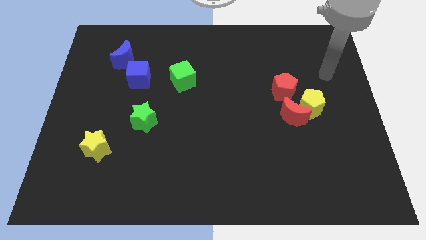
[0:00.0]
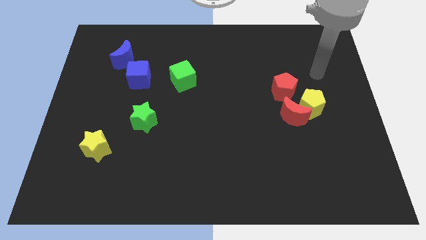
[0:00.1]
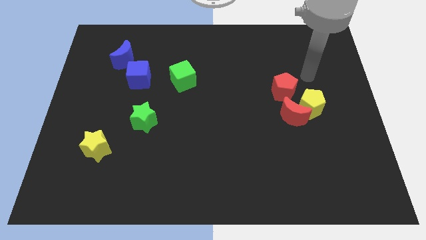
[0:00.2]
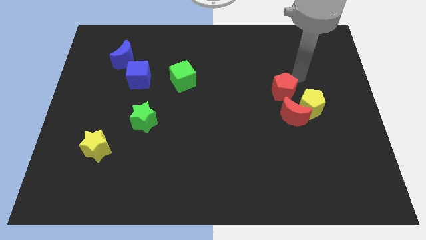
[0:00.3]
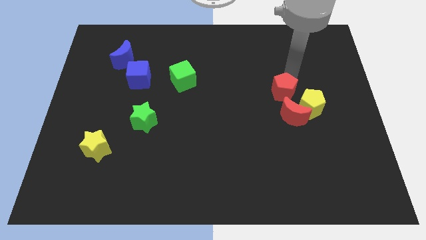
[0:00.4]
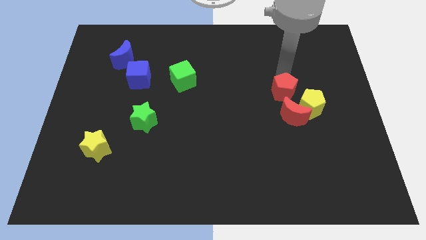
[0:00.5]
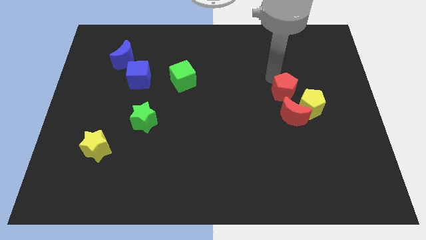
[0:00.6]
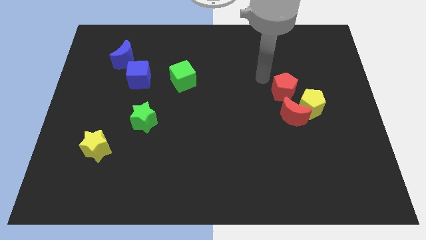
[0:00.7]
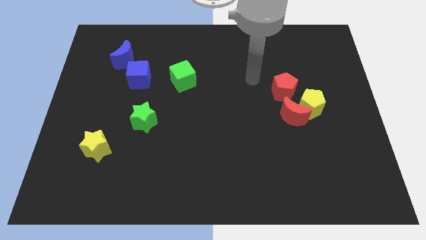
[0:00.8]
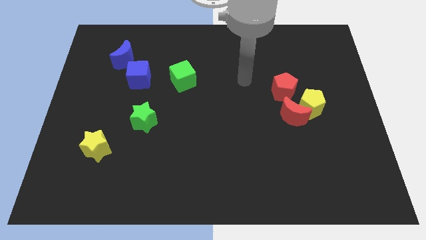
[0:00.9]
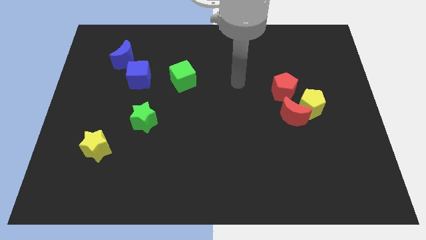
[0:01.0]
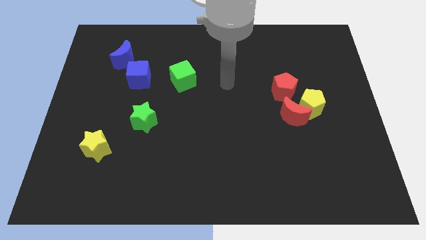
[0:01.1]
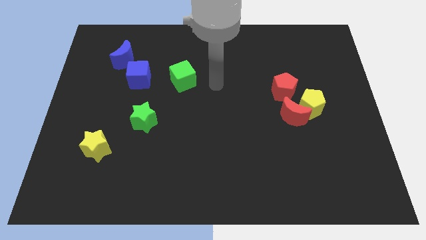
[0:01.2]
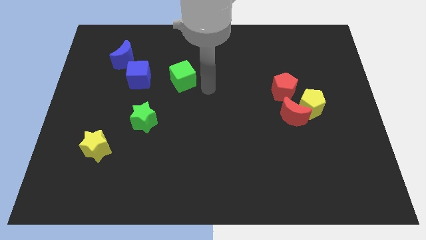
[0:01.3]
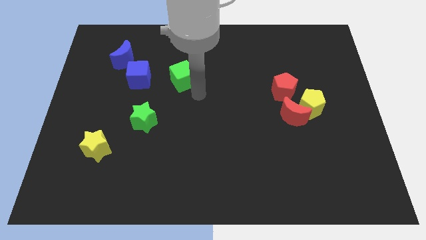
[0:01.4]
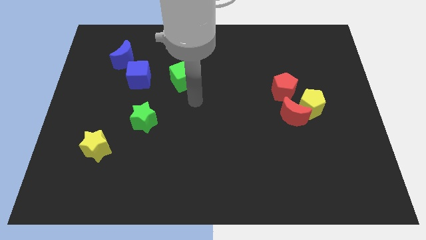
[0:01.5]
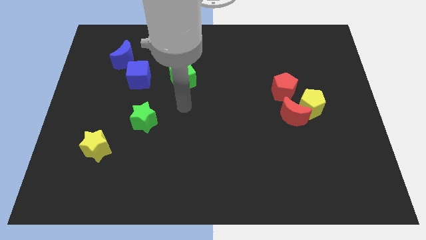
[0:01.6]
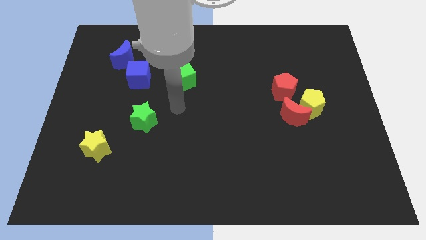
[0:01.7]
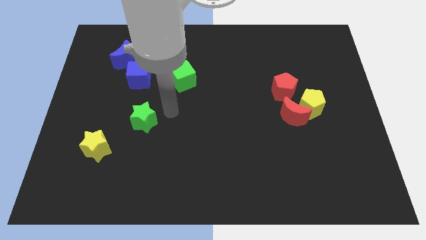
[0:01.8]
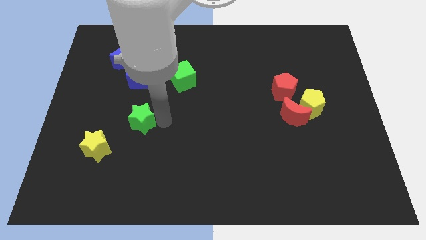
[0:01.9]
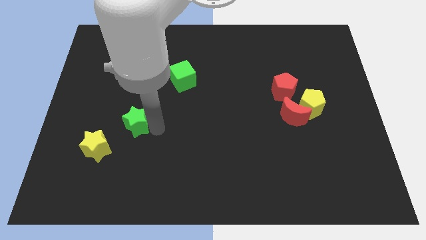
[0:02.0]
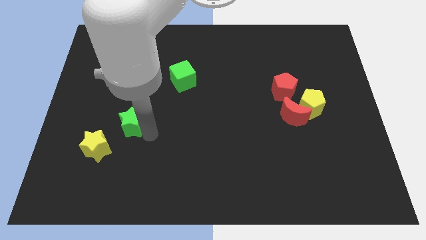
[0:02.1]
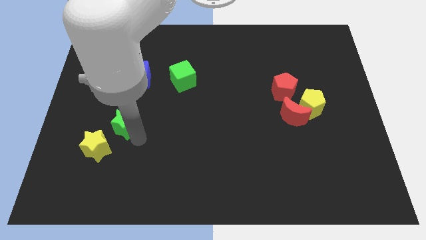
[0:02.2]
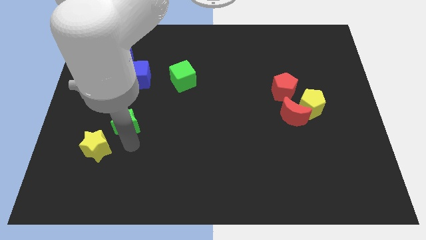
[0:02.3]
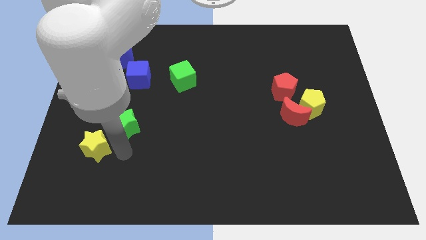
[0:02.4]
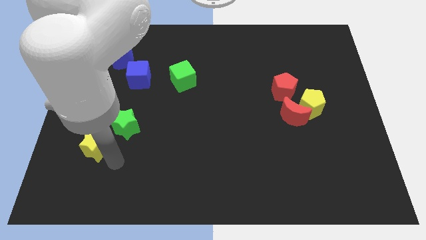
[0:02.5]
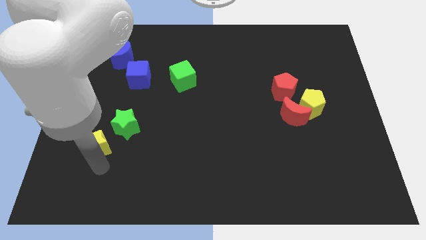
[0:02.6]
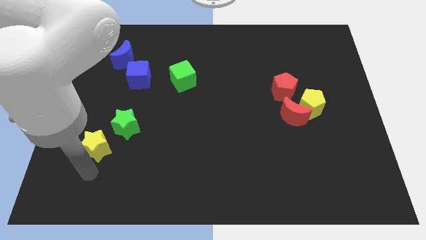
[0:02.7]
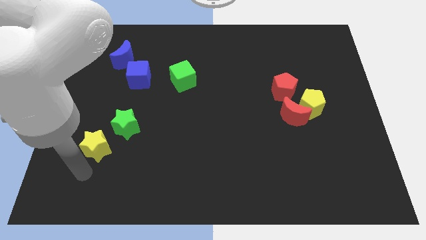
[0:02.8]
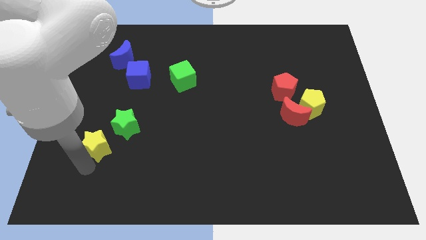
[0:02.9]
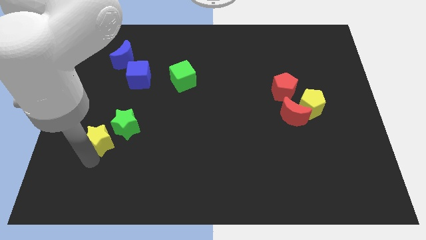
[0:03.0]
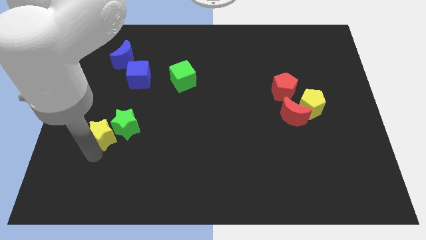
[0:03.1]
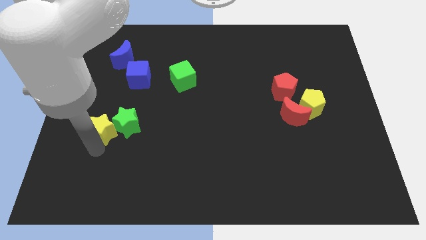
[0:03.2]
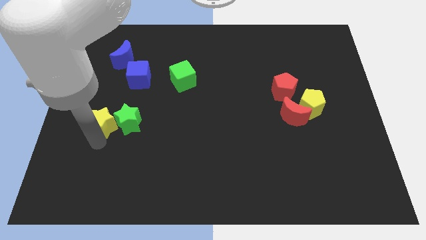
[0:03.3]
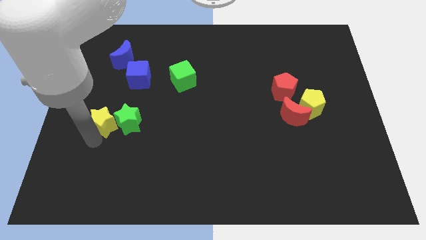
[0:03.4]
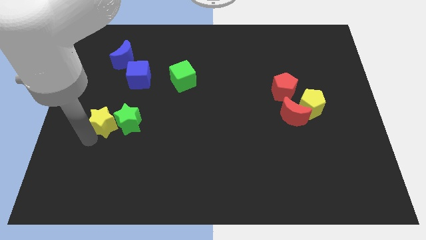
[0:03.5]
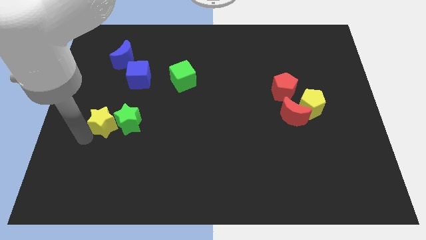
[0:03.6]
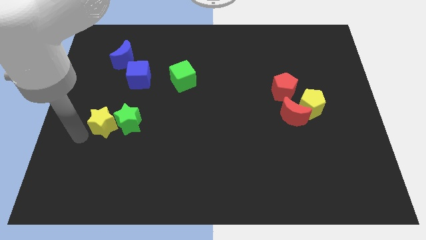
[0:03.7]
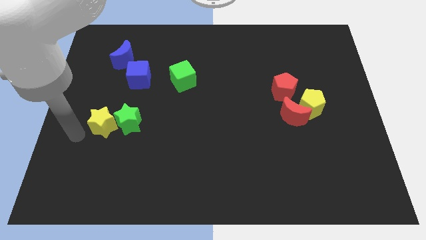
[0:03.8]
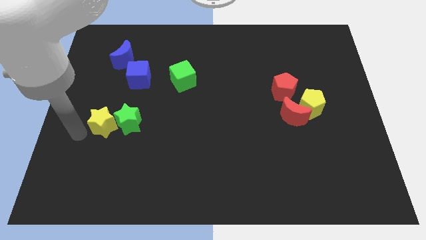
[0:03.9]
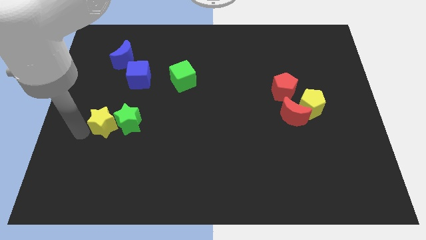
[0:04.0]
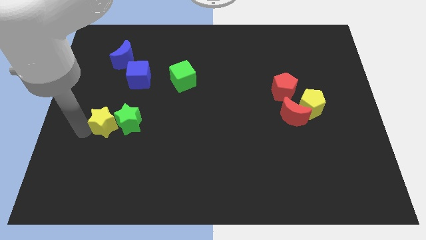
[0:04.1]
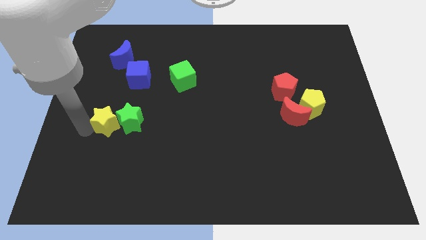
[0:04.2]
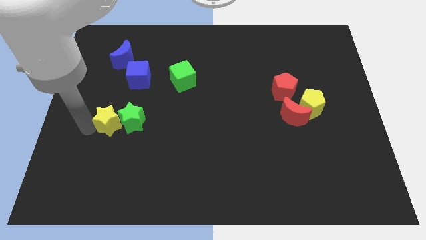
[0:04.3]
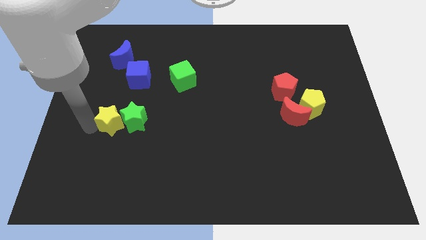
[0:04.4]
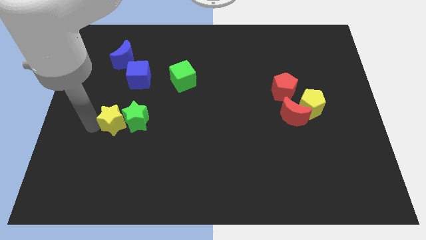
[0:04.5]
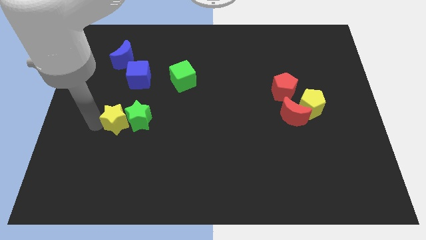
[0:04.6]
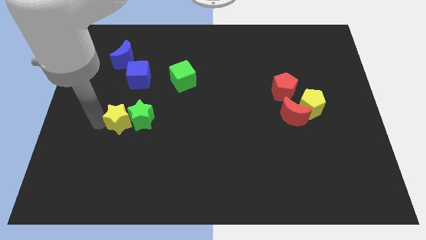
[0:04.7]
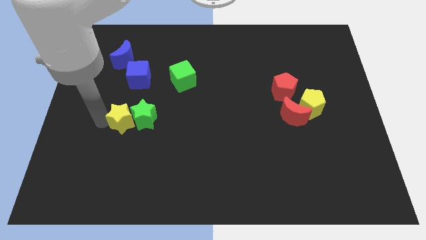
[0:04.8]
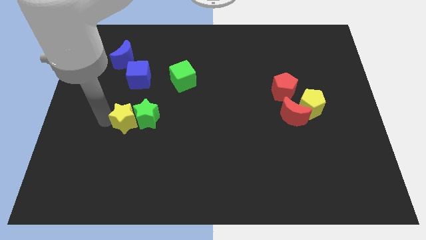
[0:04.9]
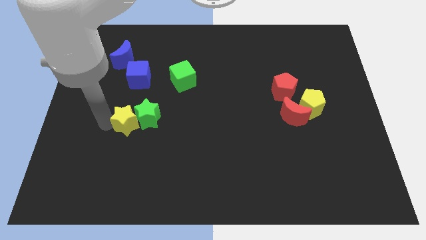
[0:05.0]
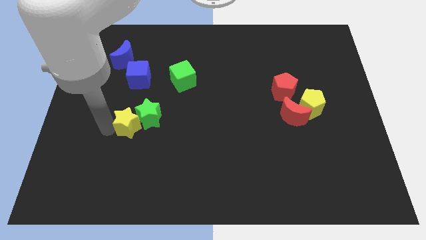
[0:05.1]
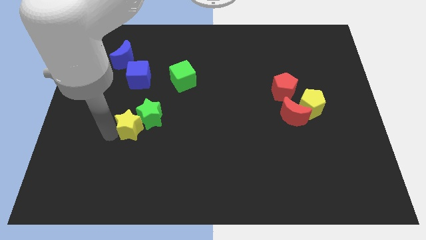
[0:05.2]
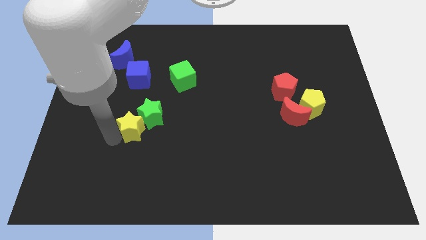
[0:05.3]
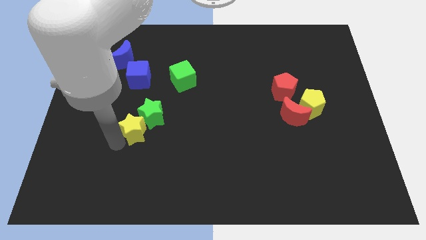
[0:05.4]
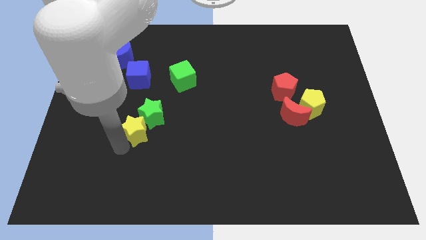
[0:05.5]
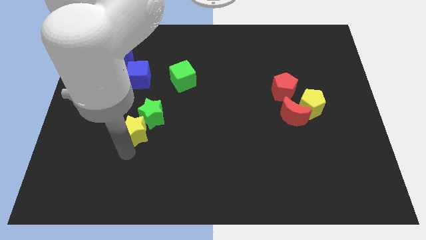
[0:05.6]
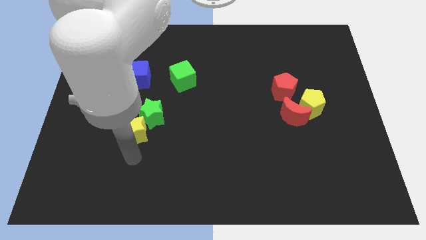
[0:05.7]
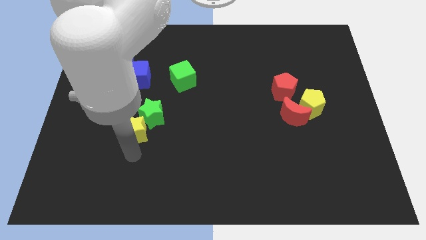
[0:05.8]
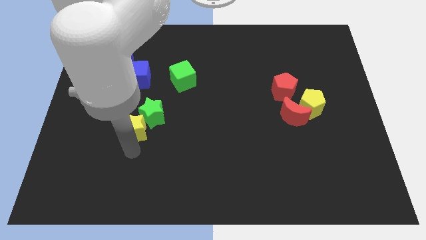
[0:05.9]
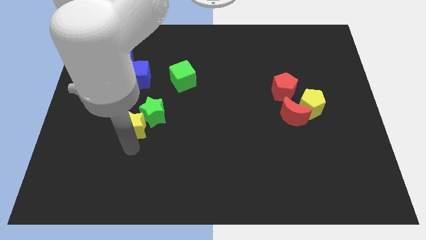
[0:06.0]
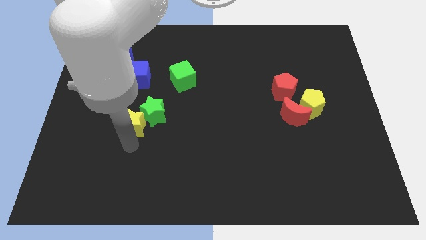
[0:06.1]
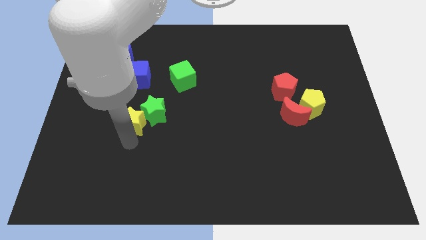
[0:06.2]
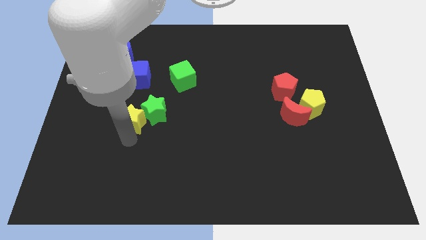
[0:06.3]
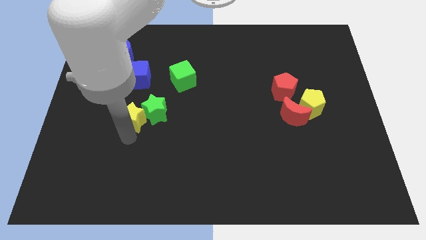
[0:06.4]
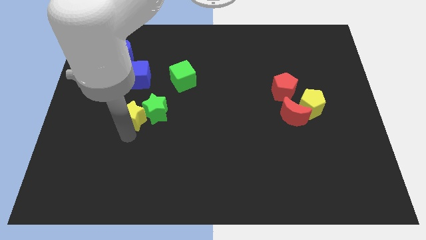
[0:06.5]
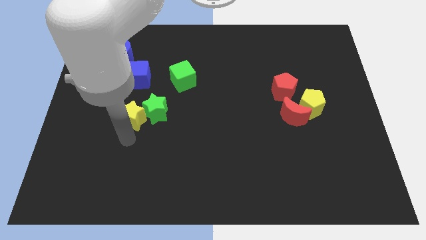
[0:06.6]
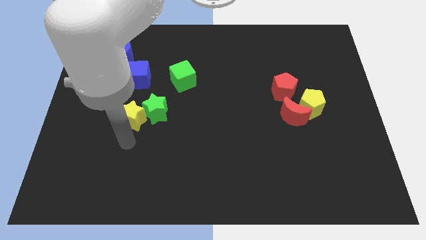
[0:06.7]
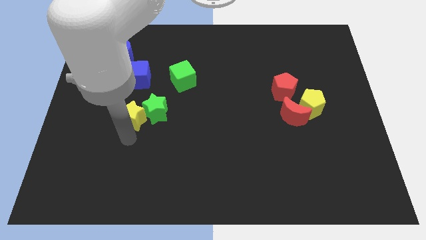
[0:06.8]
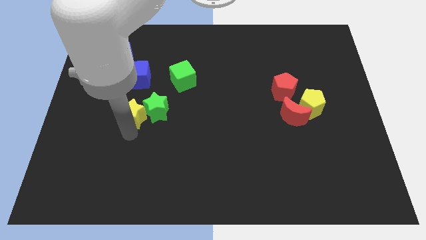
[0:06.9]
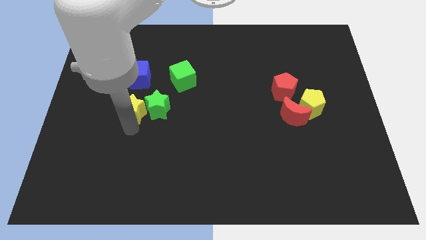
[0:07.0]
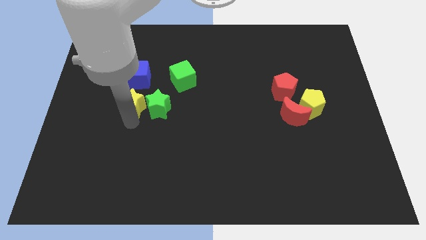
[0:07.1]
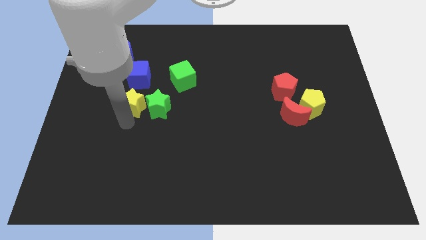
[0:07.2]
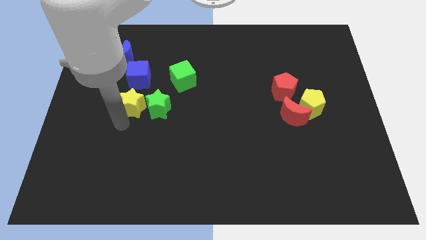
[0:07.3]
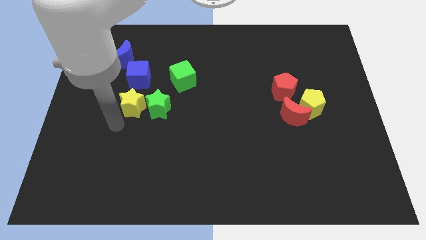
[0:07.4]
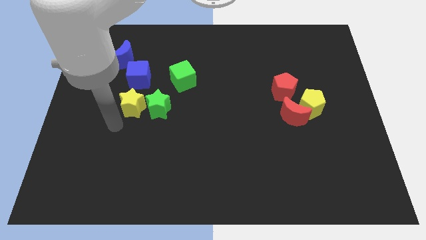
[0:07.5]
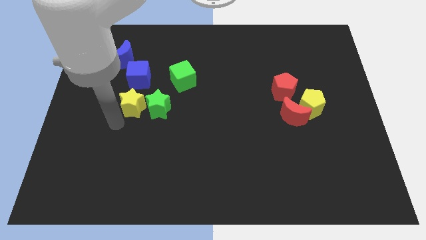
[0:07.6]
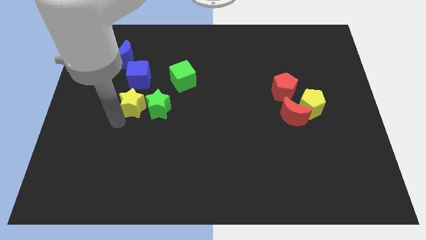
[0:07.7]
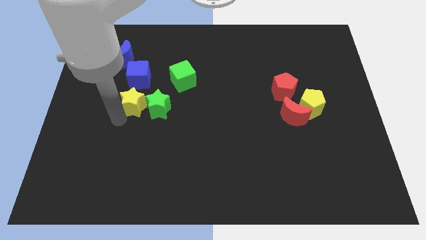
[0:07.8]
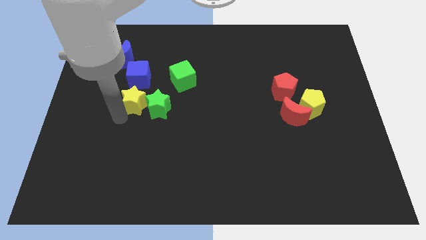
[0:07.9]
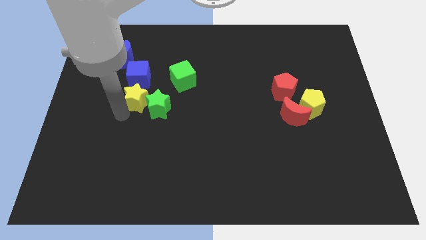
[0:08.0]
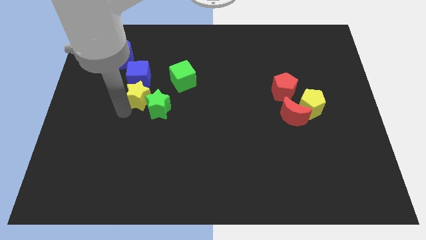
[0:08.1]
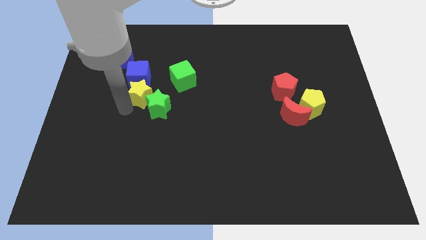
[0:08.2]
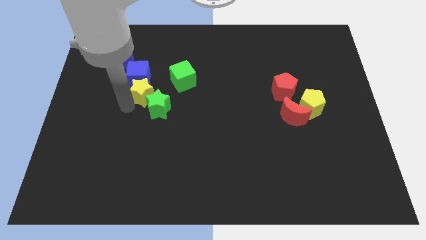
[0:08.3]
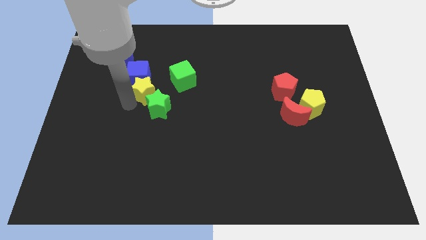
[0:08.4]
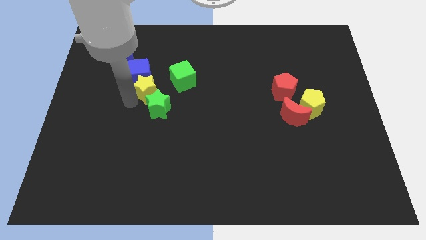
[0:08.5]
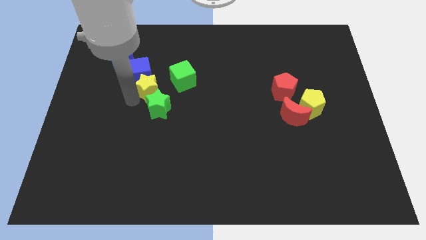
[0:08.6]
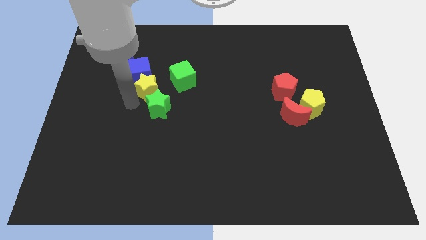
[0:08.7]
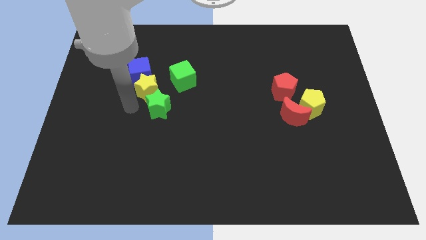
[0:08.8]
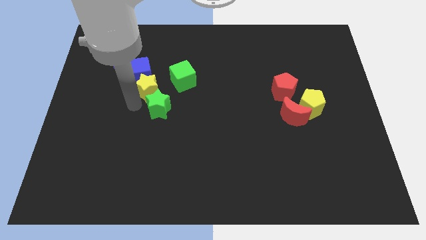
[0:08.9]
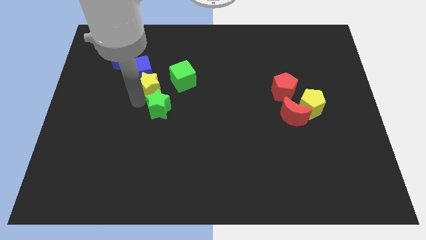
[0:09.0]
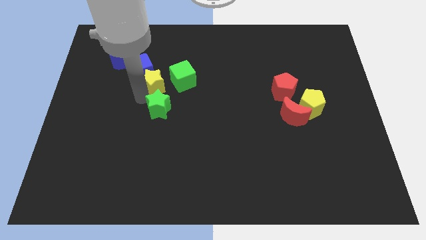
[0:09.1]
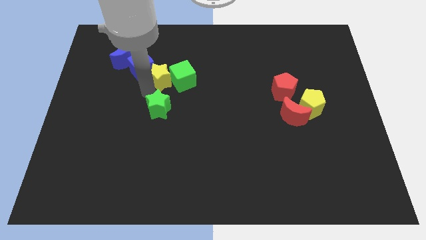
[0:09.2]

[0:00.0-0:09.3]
push the yellow star diagonally up and right
